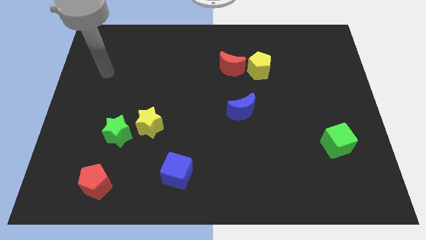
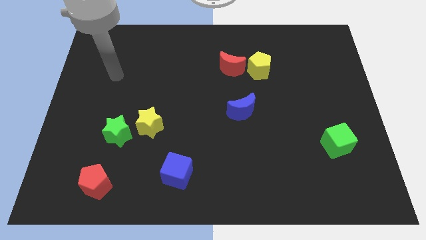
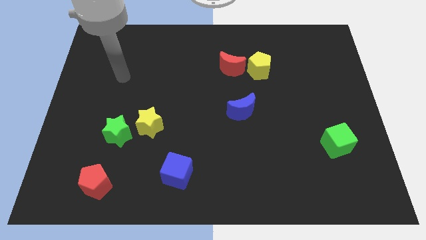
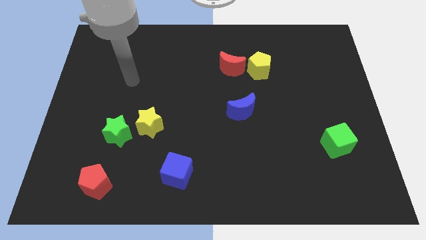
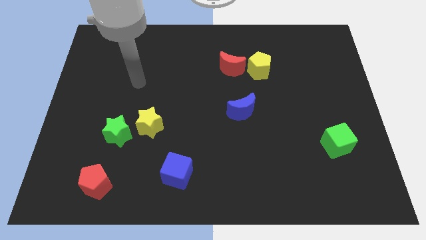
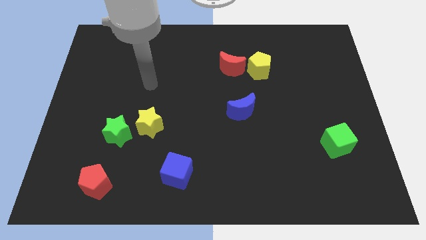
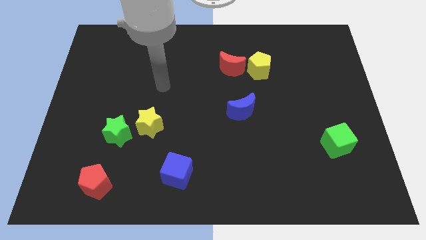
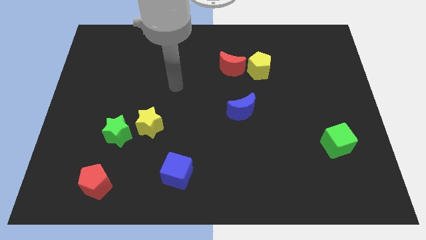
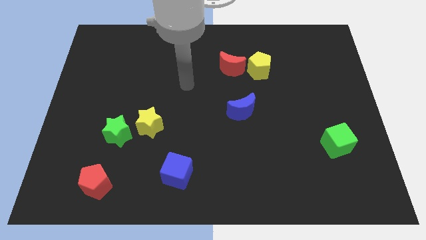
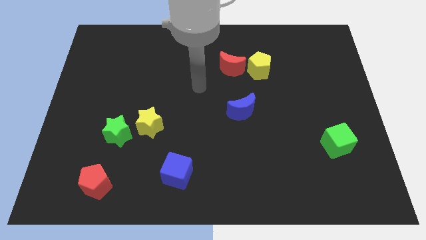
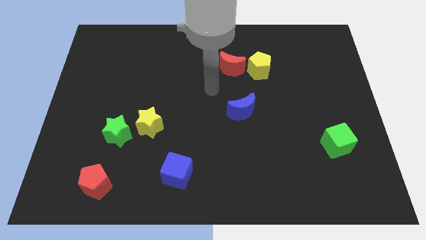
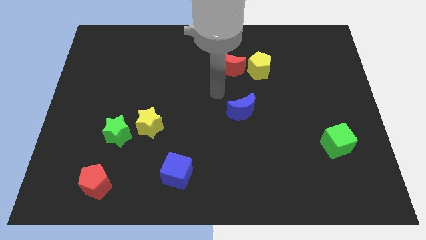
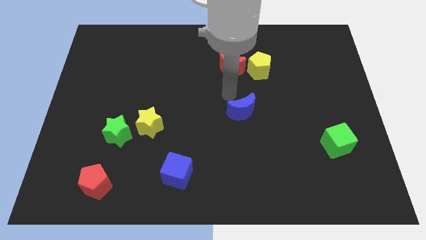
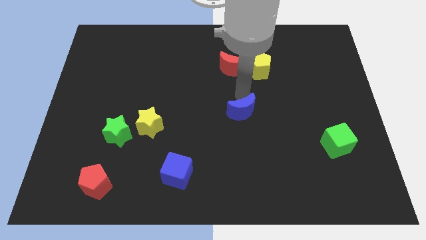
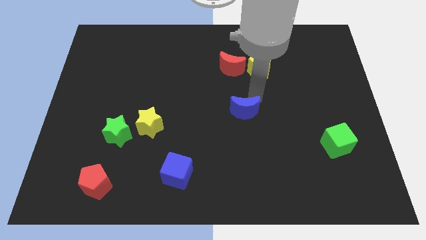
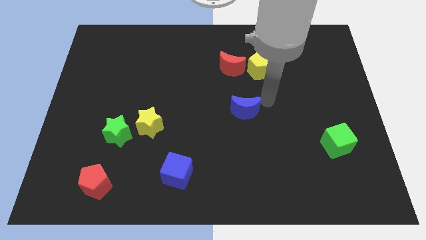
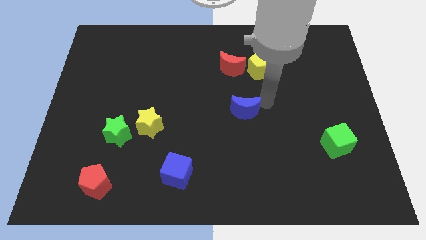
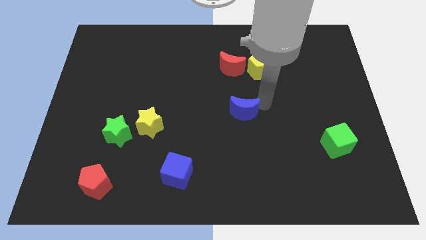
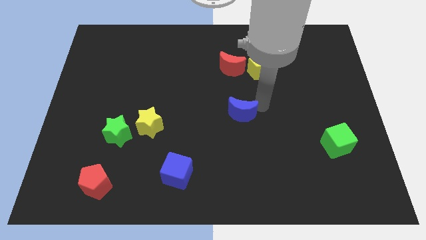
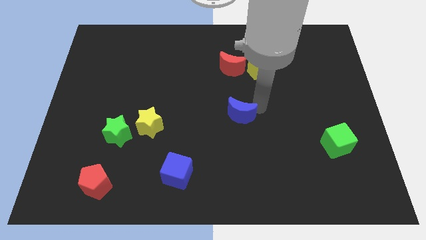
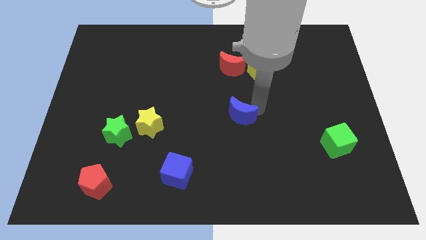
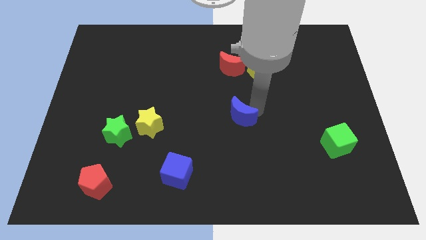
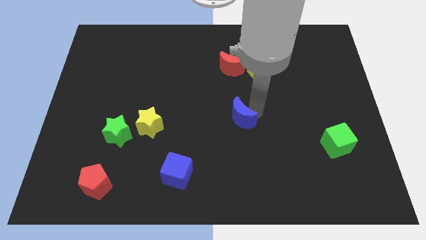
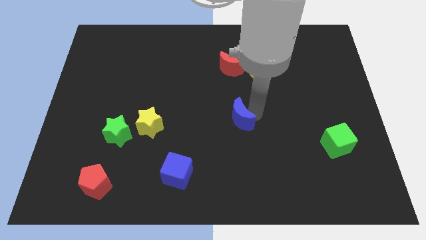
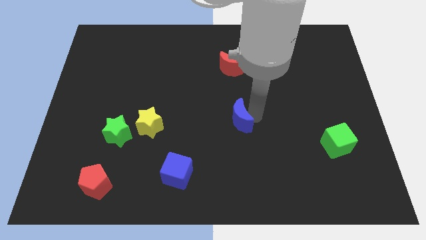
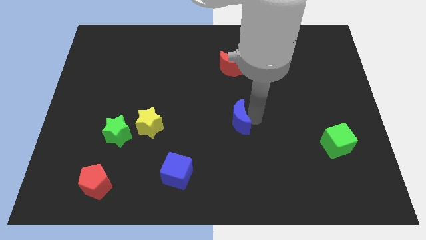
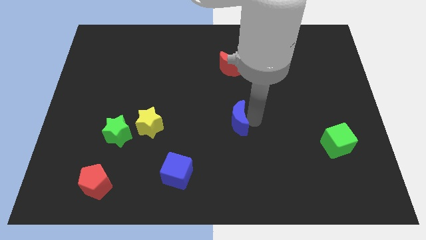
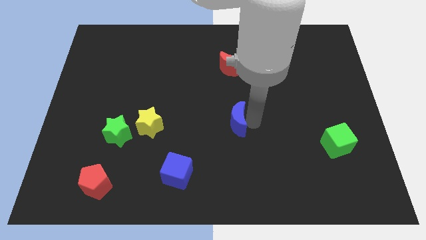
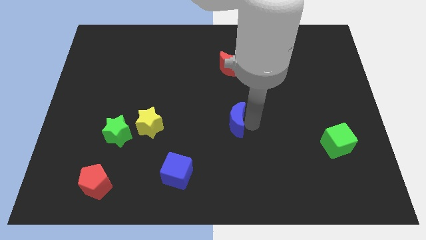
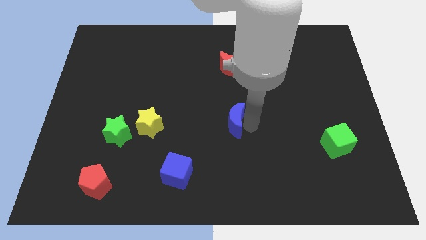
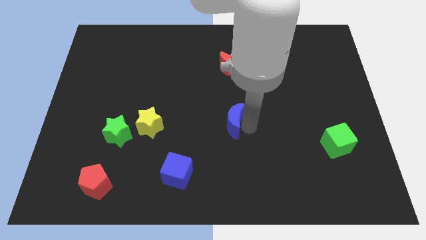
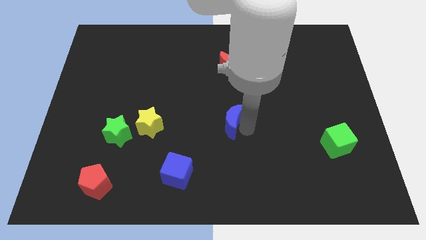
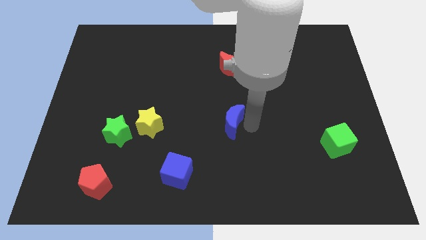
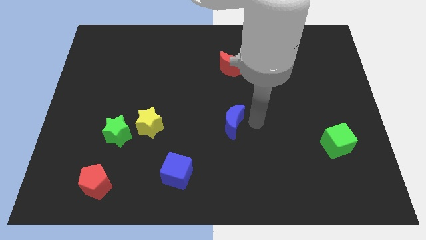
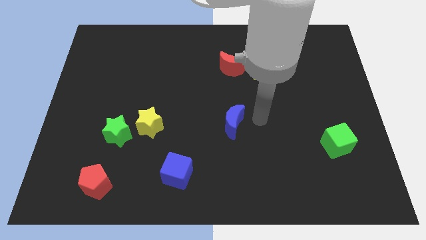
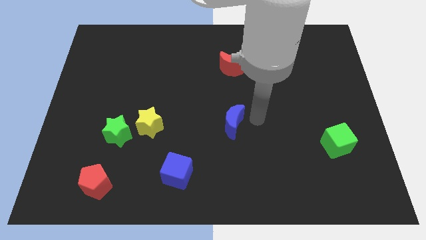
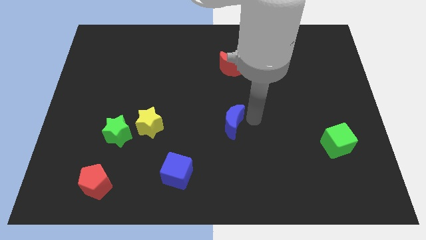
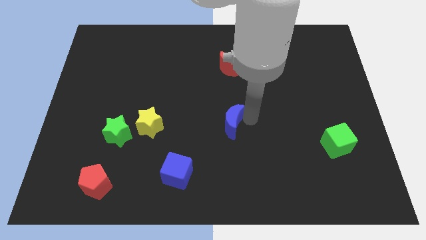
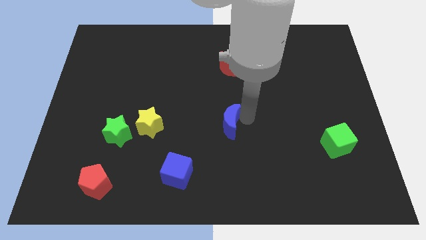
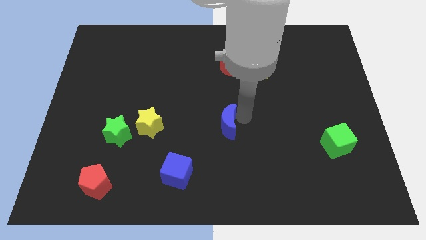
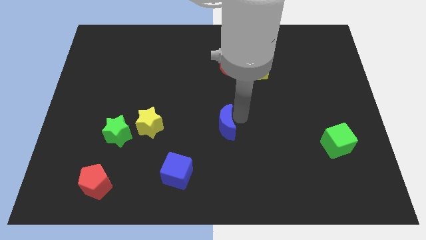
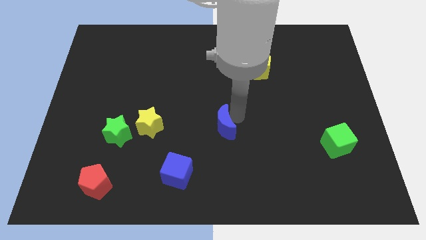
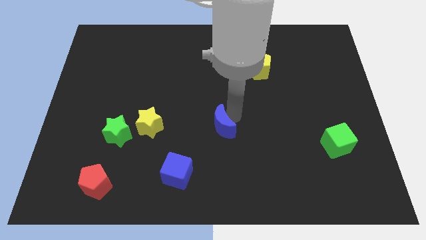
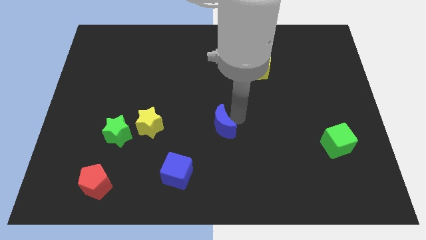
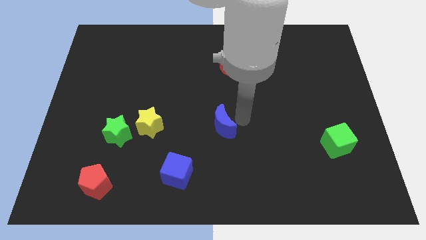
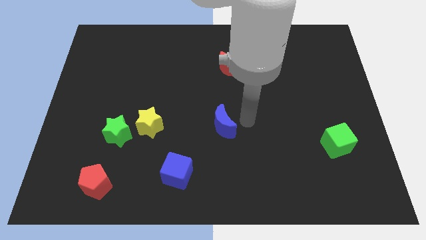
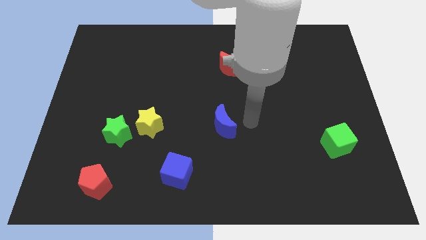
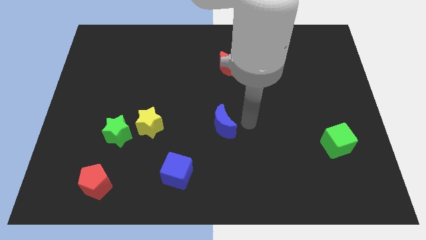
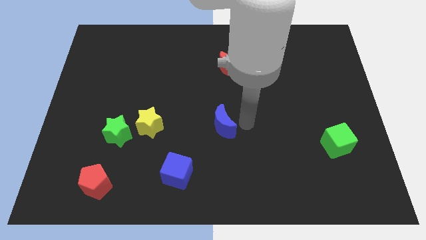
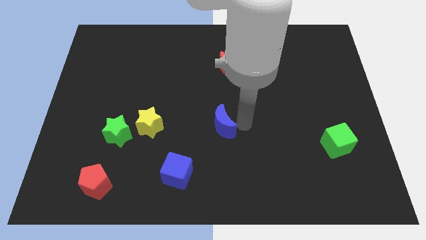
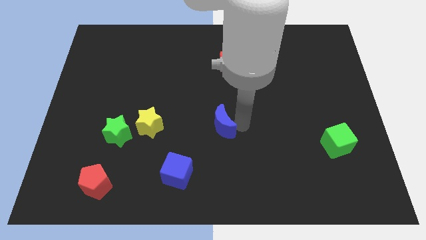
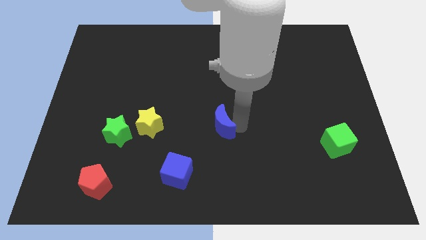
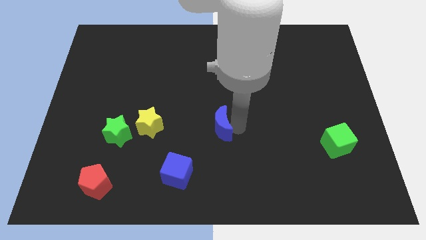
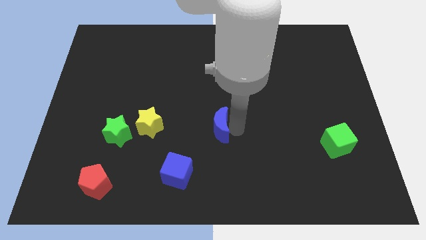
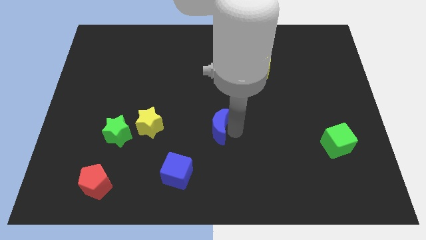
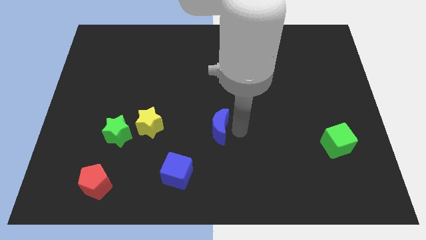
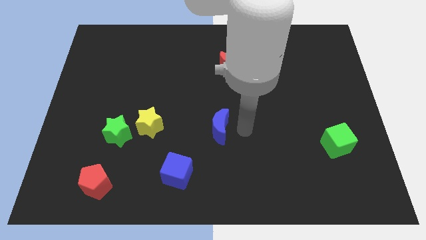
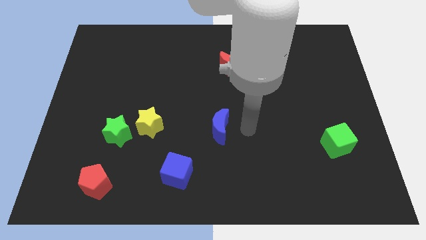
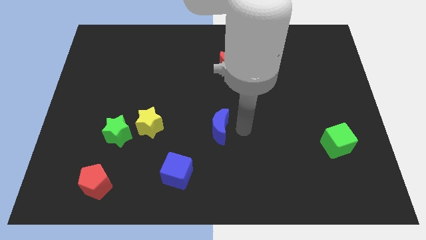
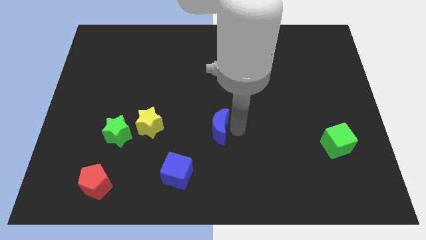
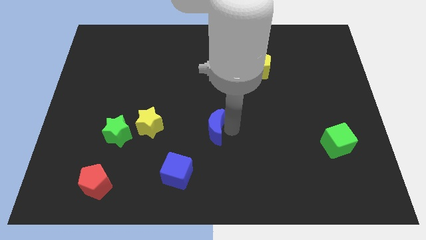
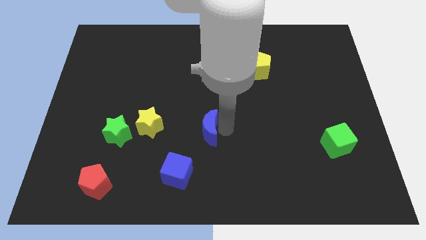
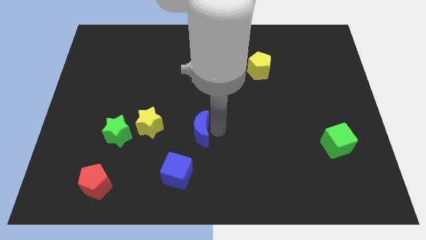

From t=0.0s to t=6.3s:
slide the blue moon to the top of the blue cube

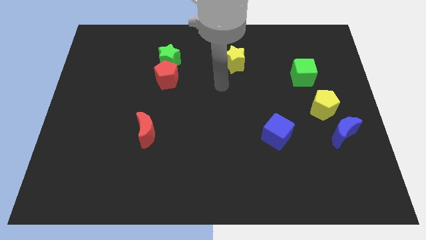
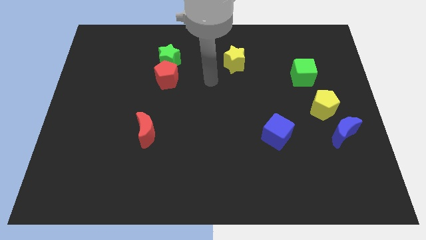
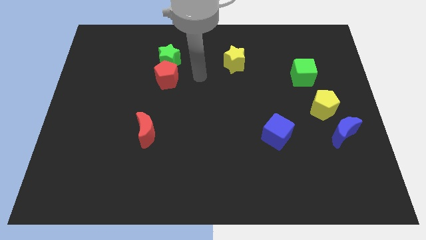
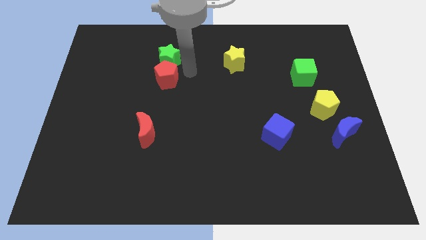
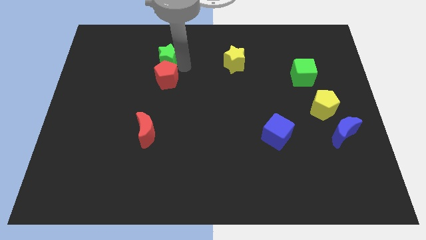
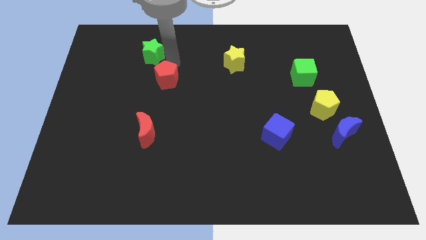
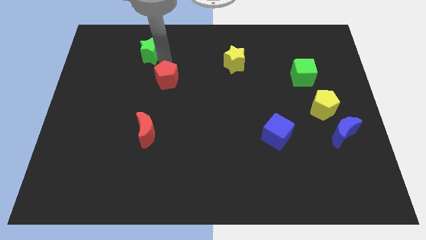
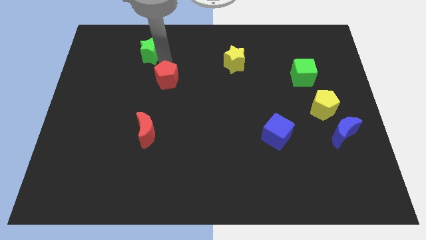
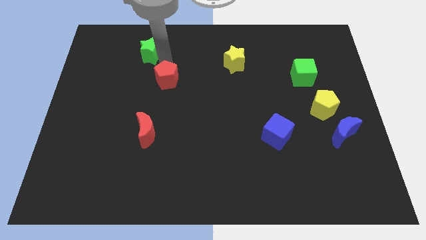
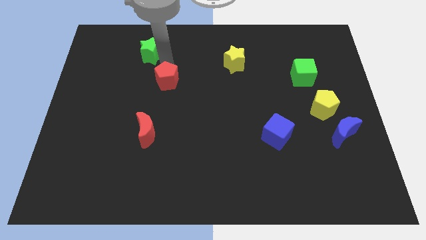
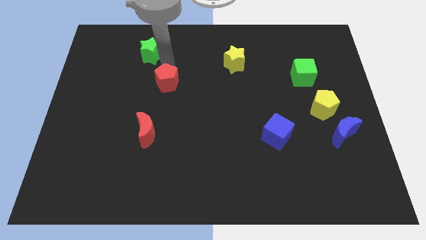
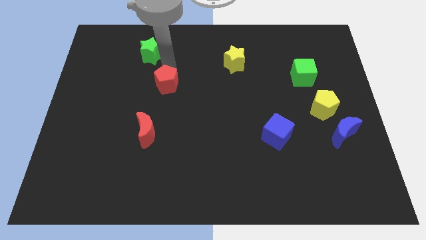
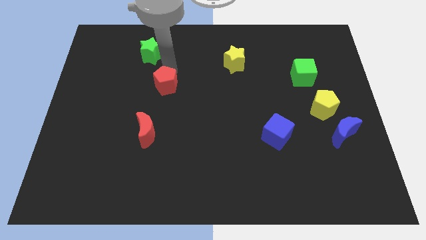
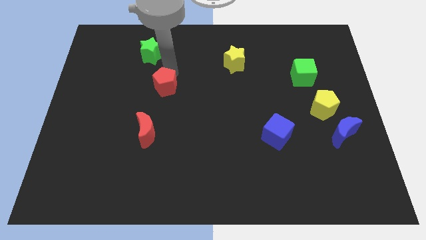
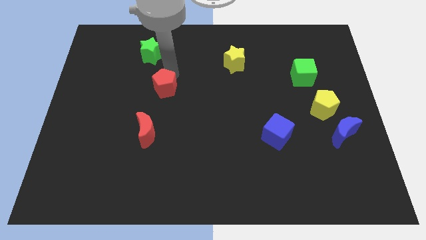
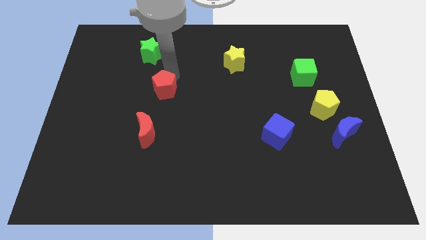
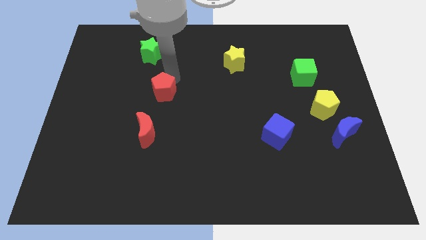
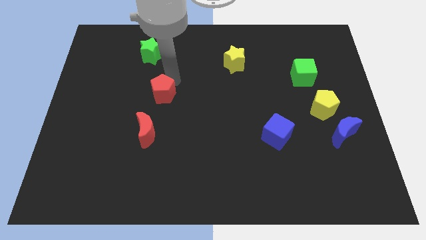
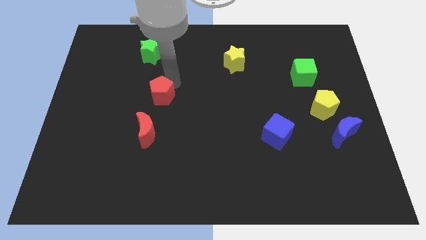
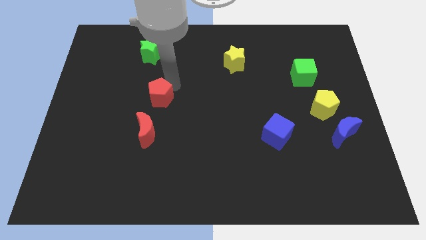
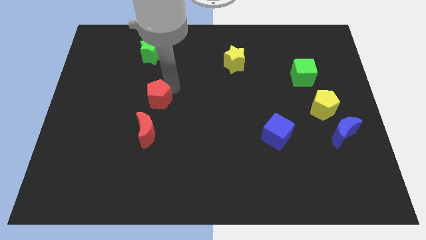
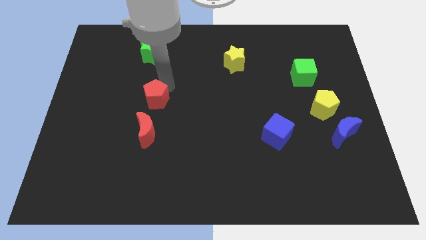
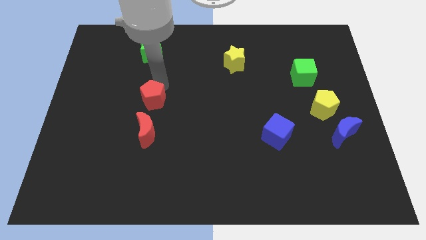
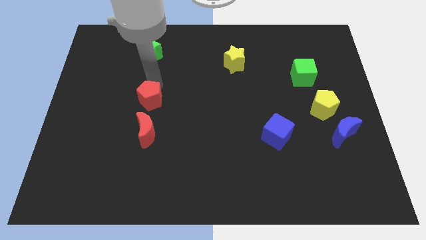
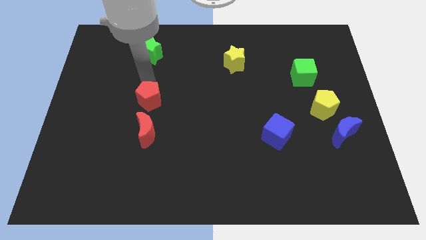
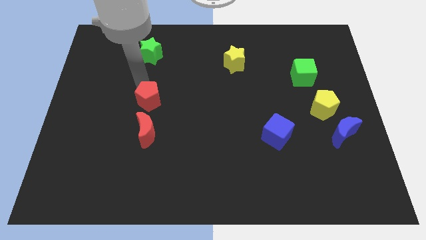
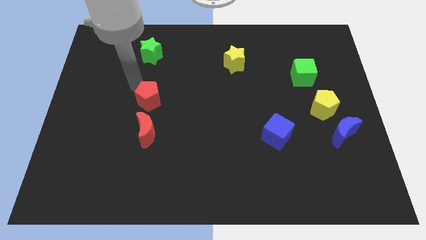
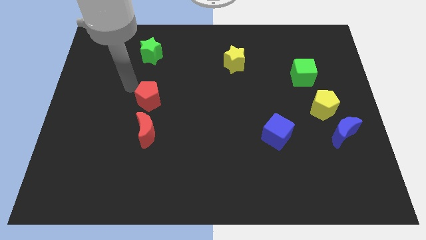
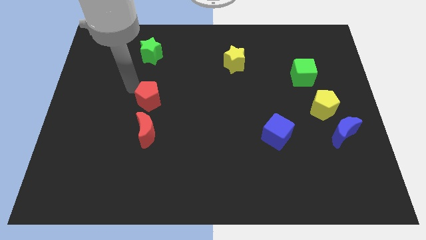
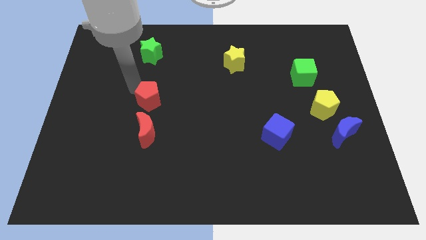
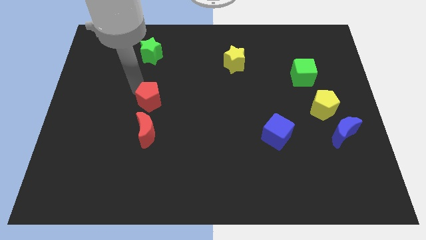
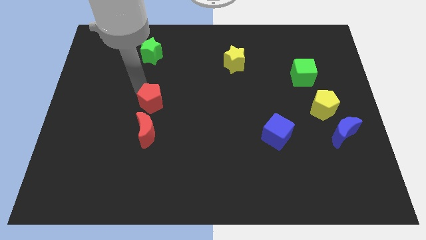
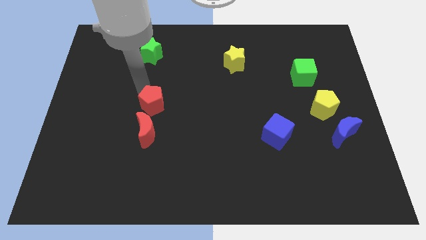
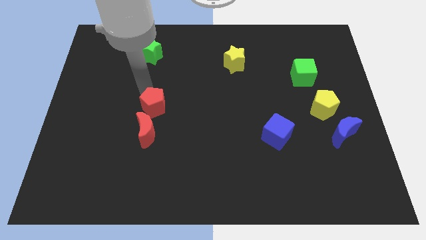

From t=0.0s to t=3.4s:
put the red pentagon diagonally up and to the right of the red moon
